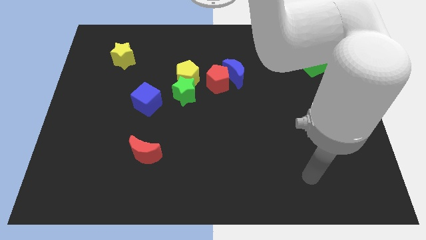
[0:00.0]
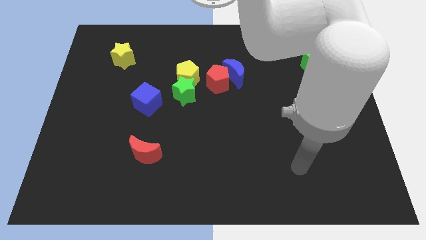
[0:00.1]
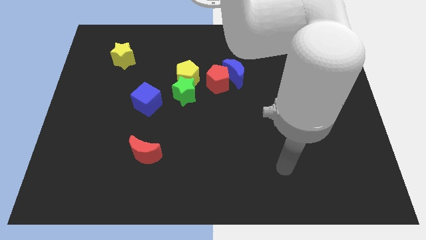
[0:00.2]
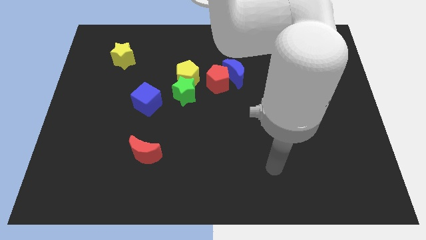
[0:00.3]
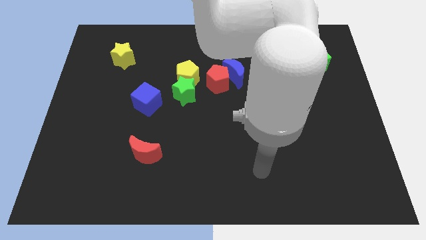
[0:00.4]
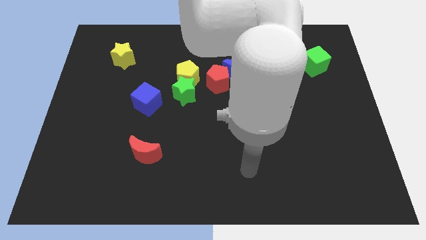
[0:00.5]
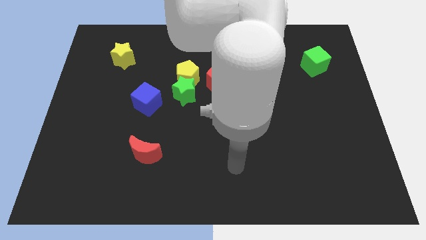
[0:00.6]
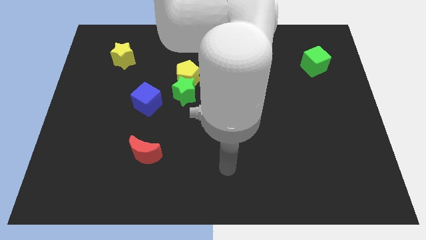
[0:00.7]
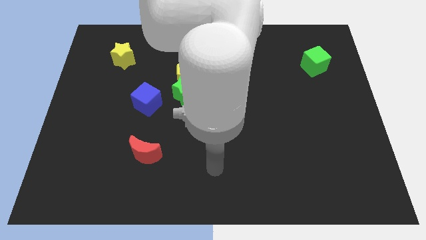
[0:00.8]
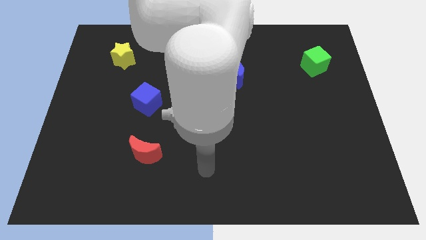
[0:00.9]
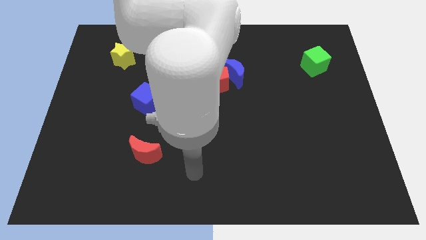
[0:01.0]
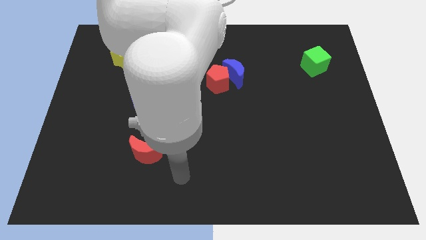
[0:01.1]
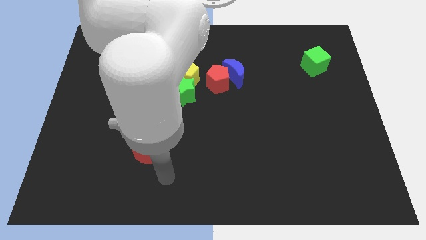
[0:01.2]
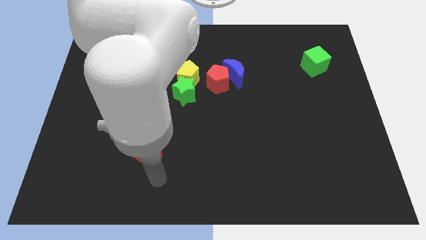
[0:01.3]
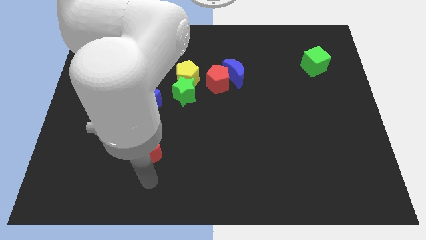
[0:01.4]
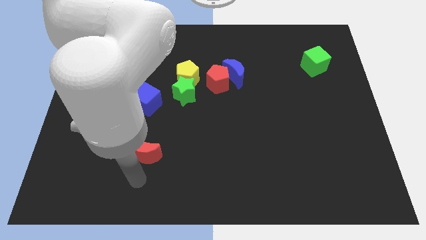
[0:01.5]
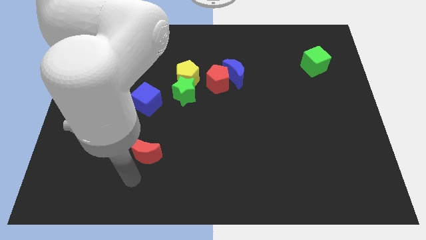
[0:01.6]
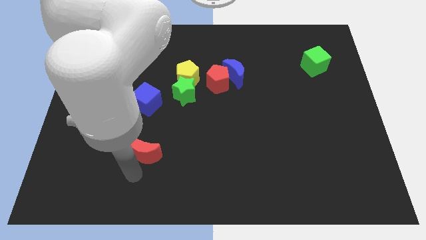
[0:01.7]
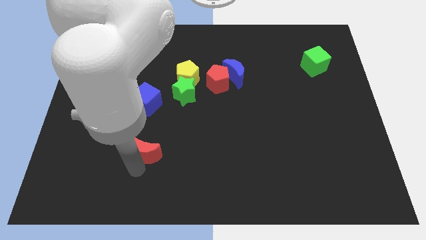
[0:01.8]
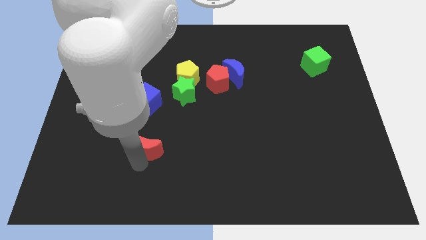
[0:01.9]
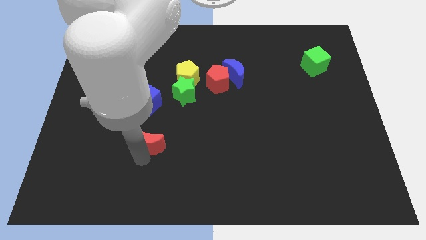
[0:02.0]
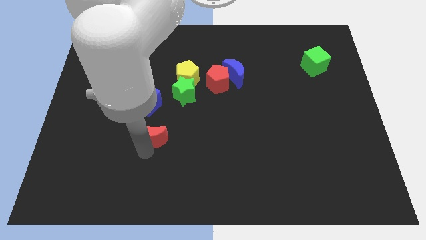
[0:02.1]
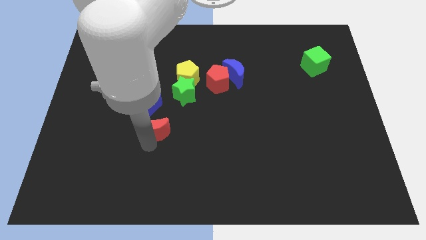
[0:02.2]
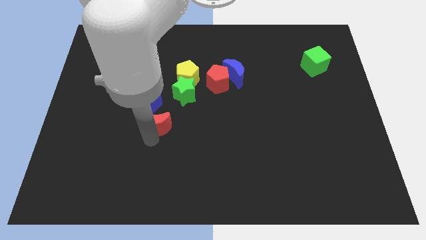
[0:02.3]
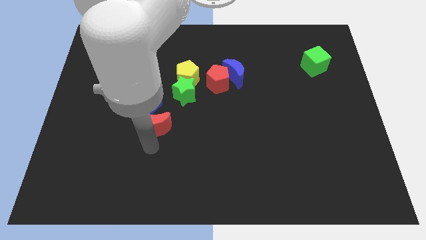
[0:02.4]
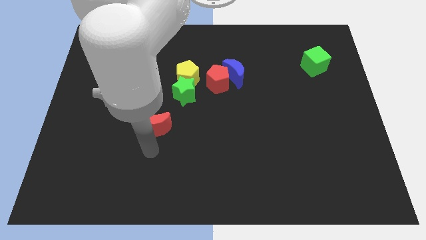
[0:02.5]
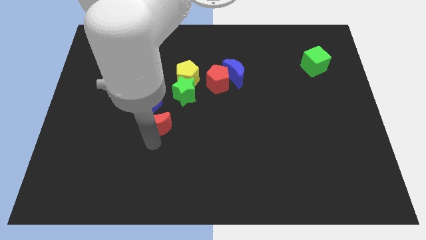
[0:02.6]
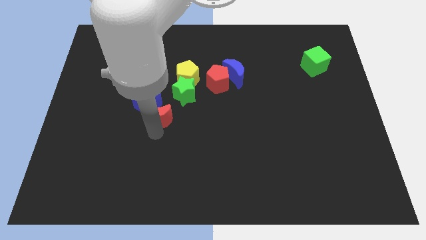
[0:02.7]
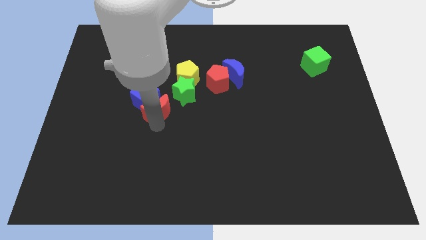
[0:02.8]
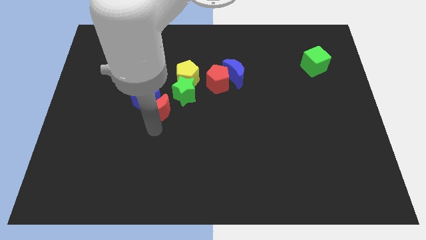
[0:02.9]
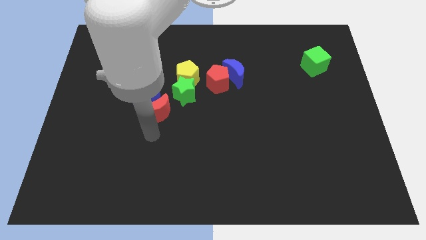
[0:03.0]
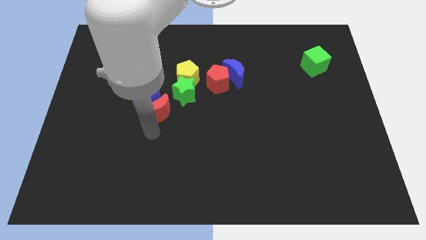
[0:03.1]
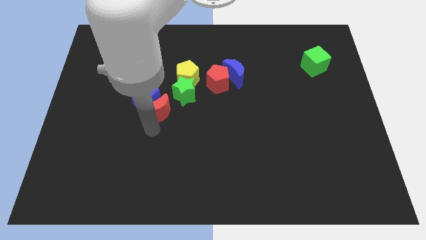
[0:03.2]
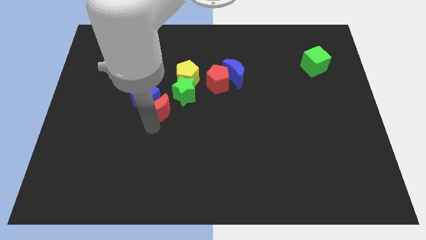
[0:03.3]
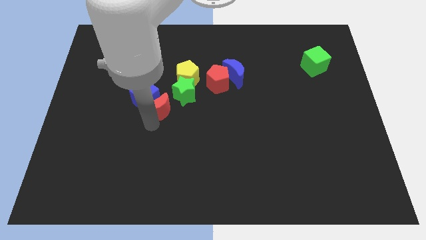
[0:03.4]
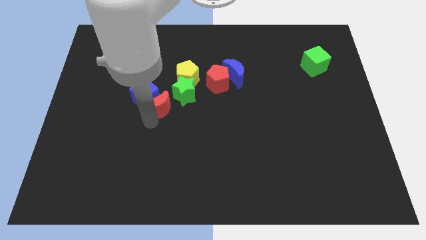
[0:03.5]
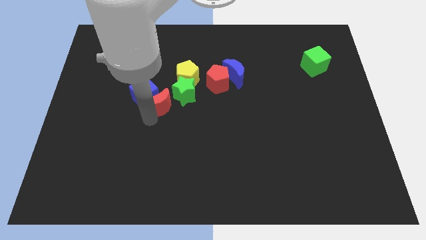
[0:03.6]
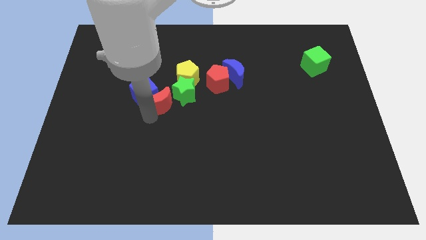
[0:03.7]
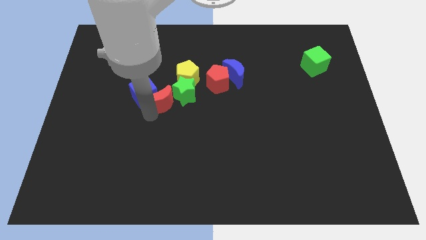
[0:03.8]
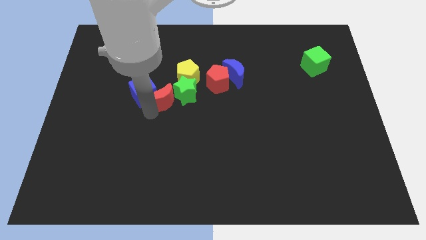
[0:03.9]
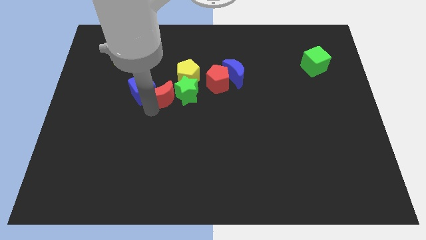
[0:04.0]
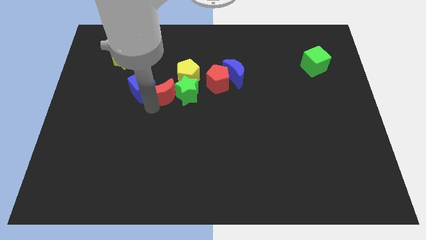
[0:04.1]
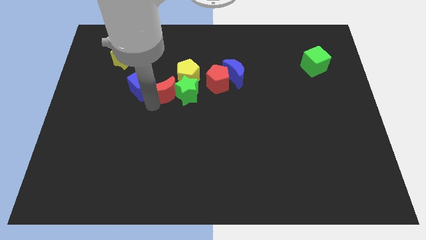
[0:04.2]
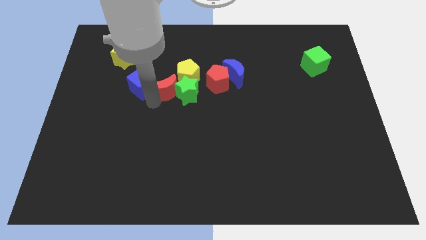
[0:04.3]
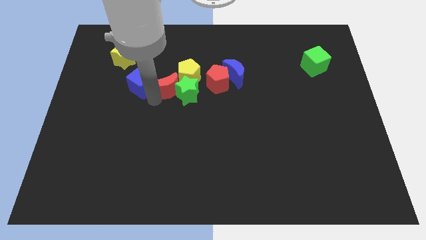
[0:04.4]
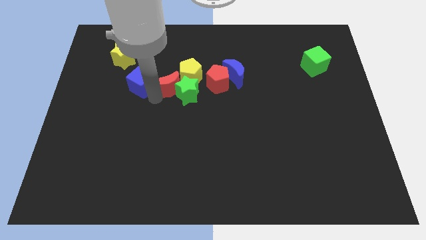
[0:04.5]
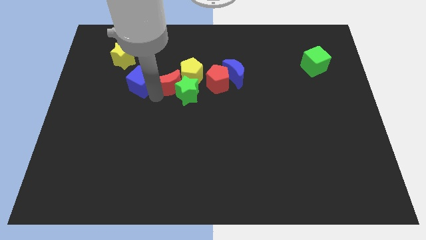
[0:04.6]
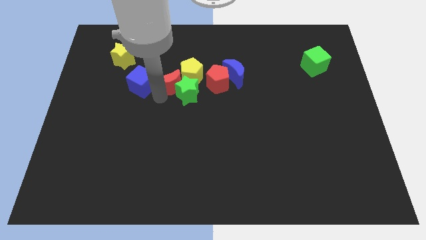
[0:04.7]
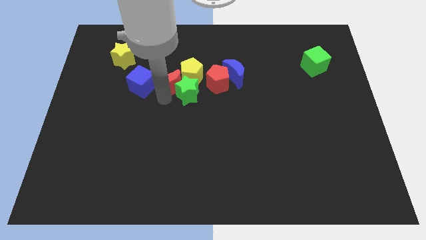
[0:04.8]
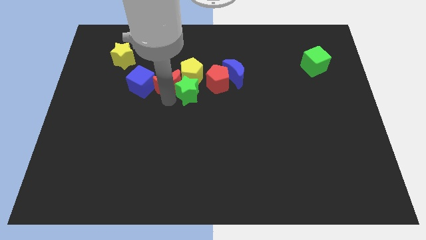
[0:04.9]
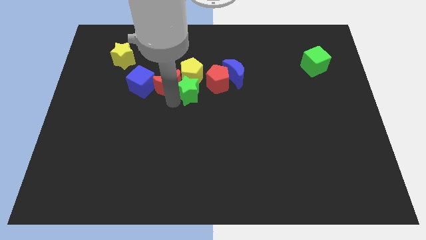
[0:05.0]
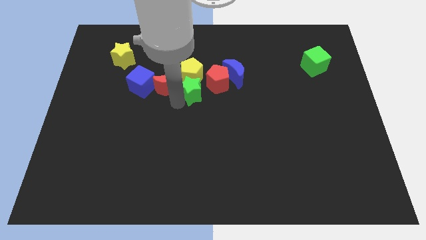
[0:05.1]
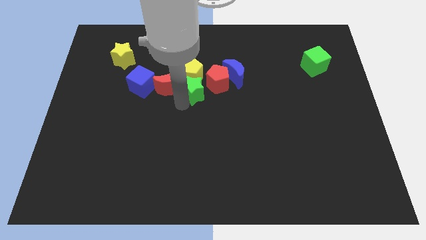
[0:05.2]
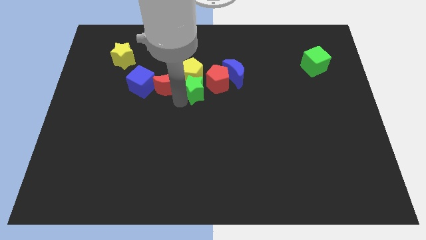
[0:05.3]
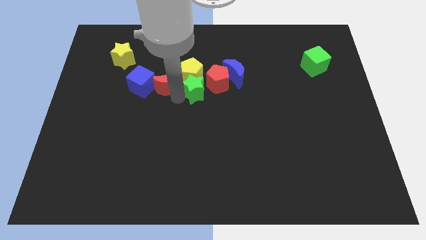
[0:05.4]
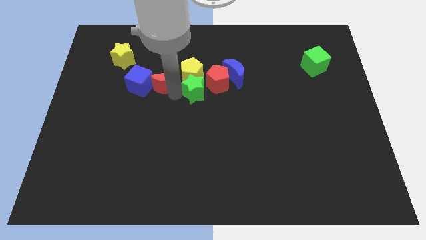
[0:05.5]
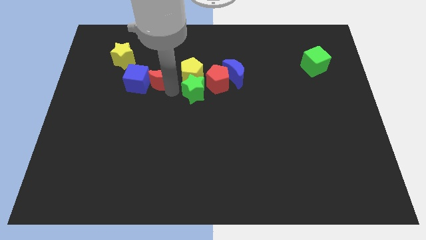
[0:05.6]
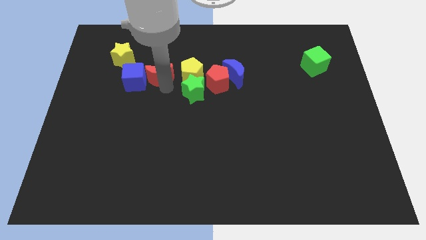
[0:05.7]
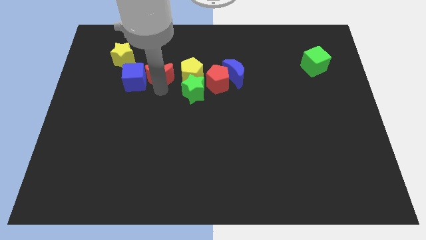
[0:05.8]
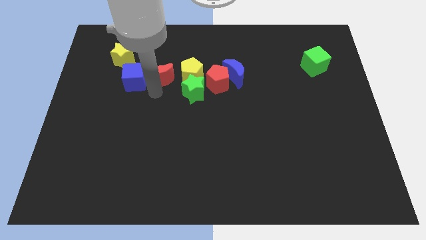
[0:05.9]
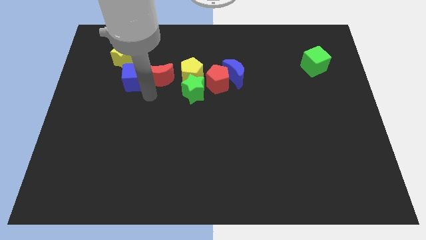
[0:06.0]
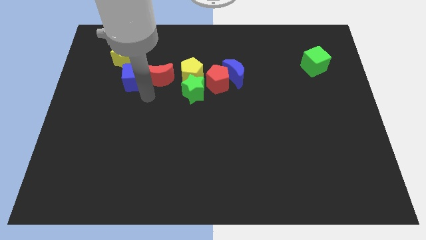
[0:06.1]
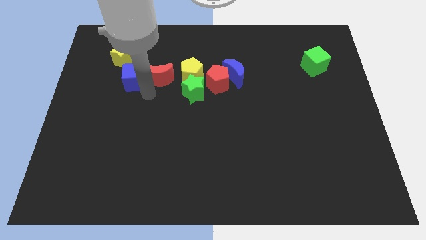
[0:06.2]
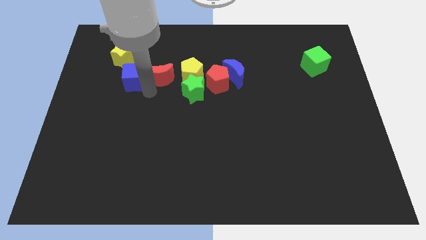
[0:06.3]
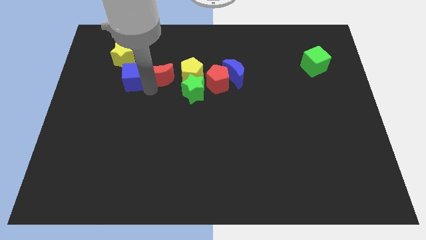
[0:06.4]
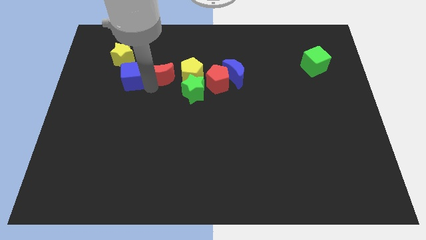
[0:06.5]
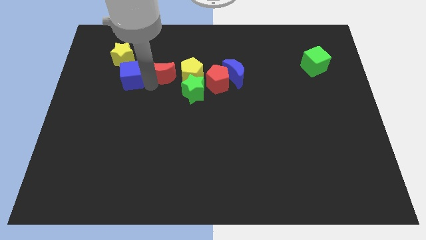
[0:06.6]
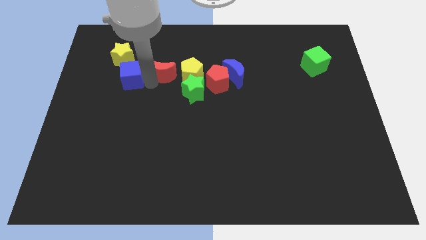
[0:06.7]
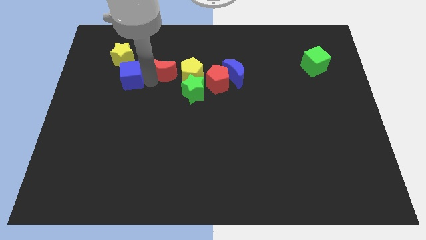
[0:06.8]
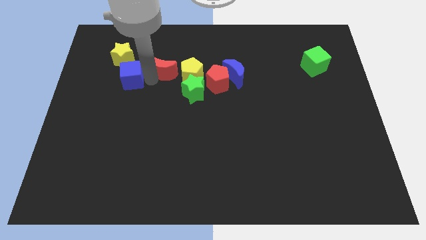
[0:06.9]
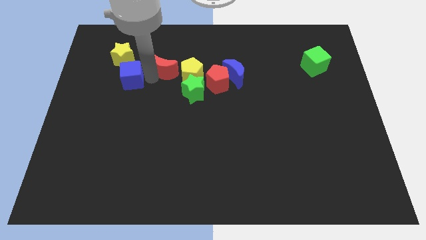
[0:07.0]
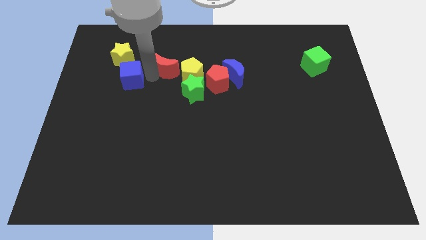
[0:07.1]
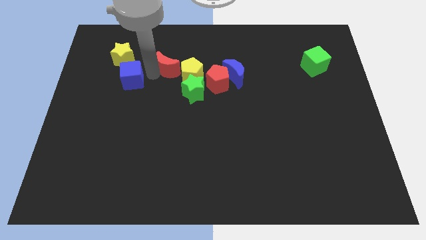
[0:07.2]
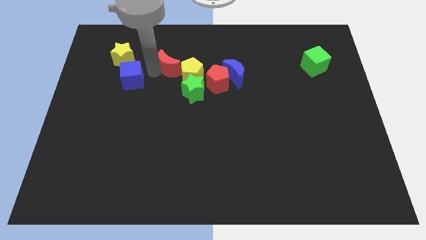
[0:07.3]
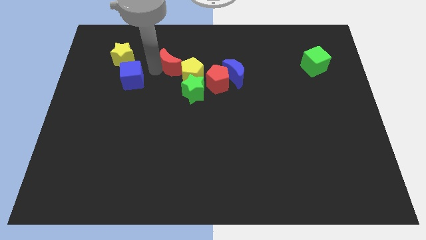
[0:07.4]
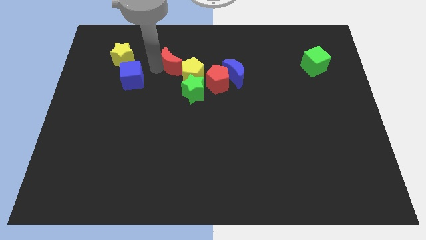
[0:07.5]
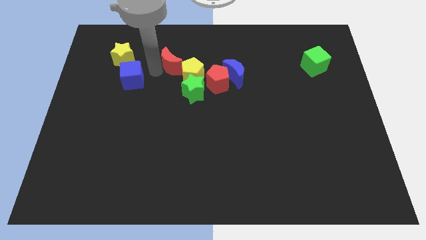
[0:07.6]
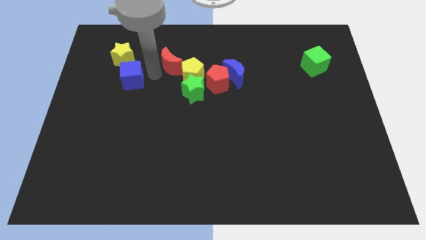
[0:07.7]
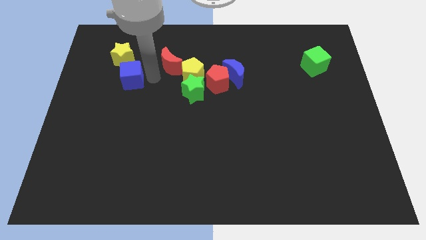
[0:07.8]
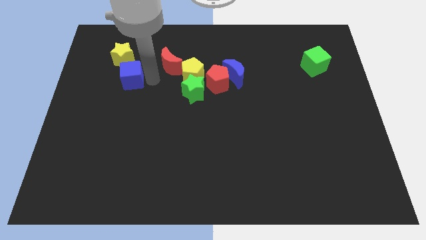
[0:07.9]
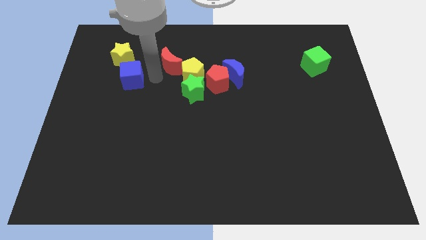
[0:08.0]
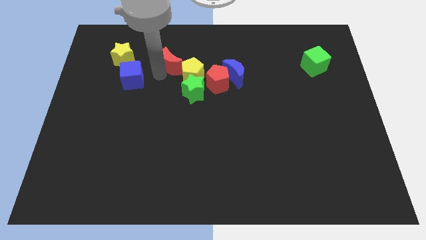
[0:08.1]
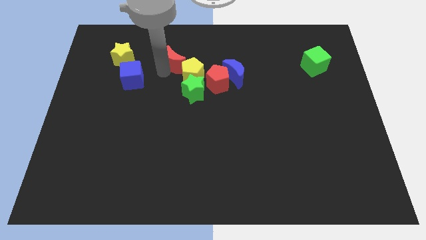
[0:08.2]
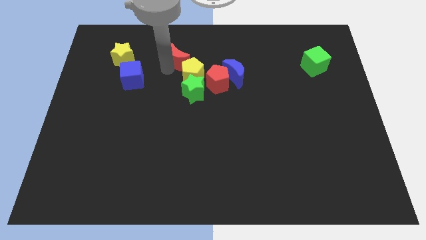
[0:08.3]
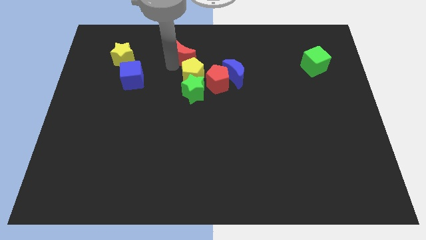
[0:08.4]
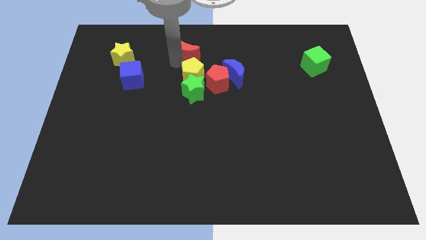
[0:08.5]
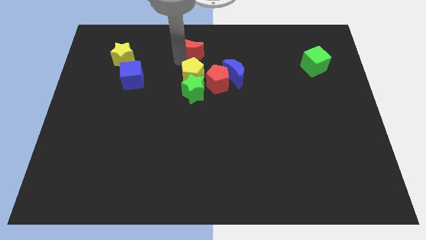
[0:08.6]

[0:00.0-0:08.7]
put the red moon to the top side
